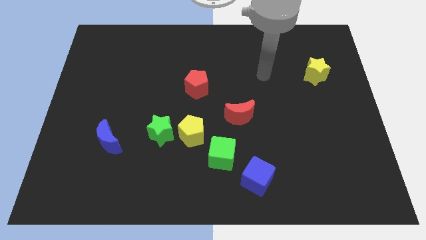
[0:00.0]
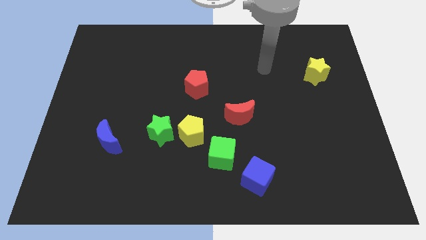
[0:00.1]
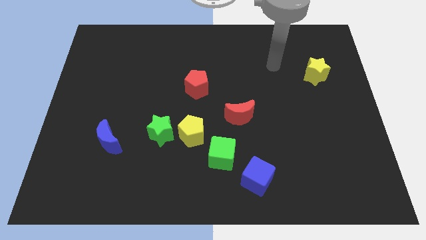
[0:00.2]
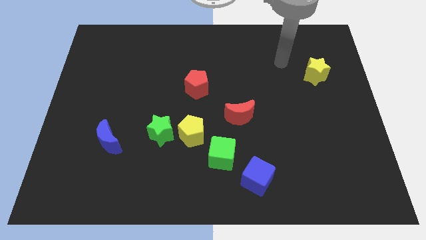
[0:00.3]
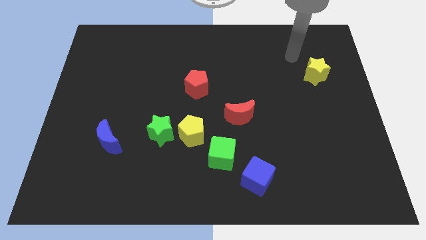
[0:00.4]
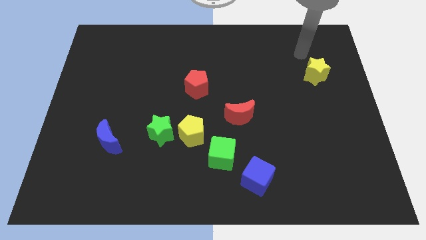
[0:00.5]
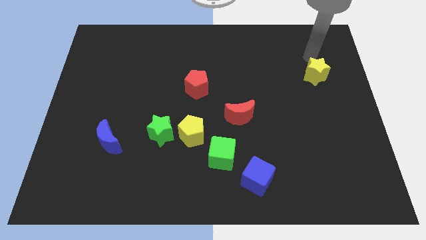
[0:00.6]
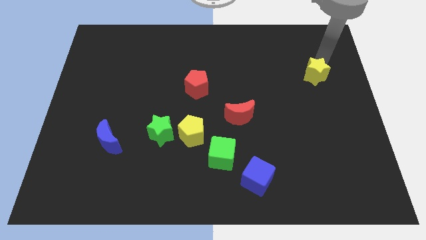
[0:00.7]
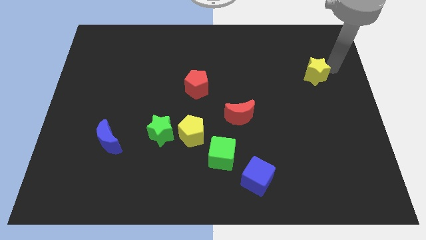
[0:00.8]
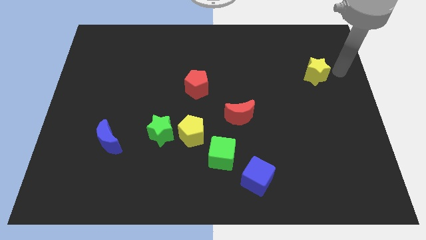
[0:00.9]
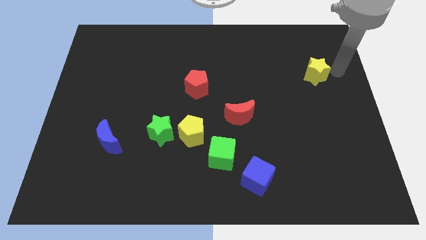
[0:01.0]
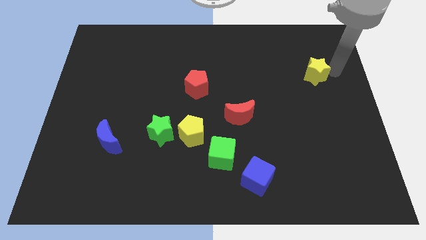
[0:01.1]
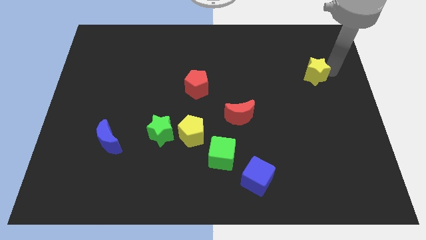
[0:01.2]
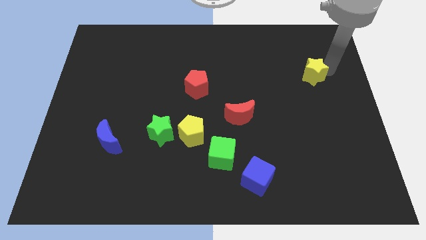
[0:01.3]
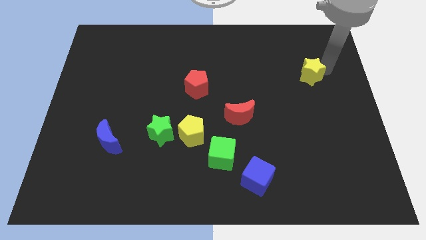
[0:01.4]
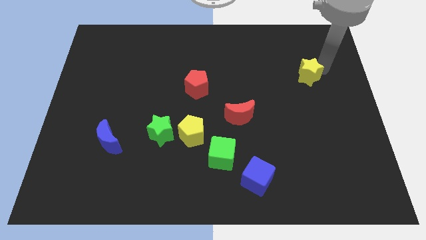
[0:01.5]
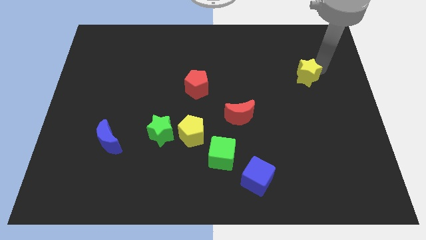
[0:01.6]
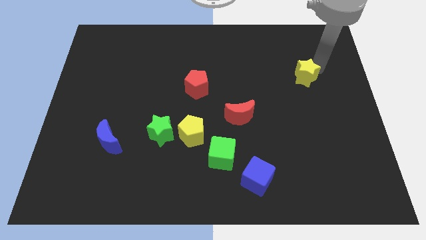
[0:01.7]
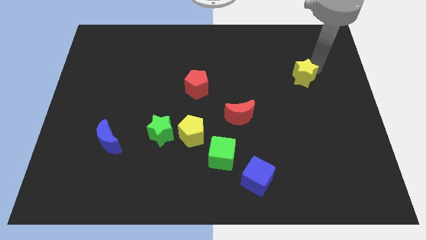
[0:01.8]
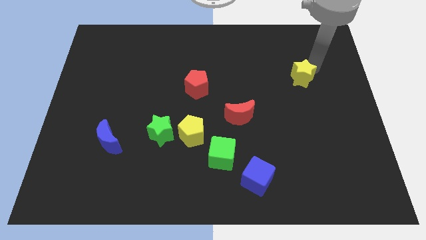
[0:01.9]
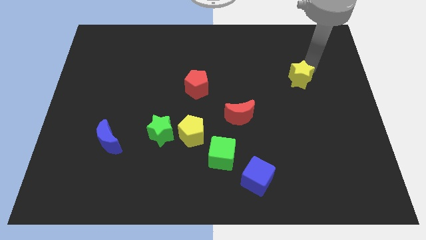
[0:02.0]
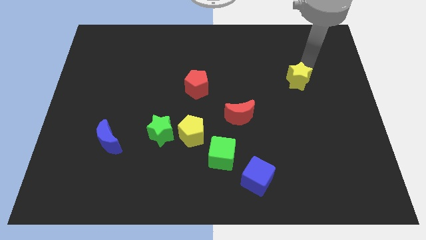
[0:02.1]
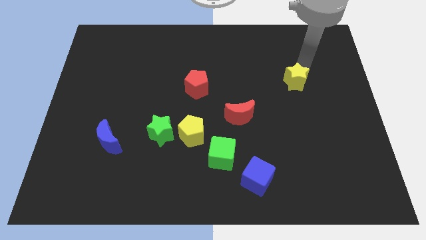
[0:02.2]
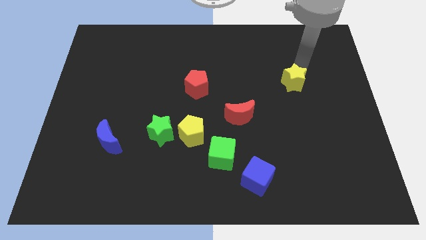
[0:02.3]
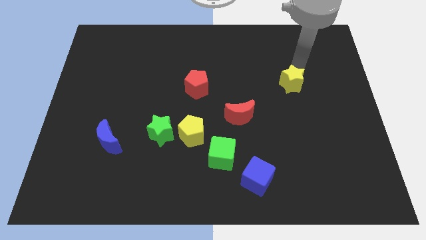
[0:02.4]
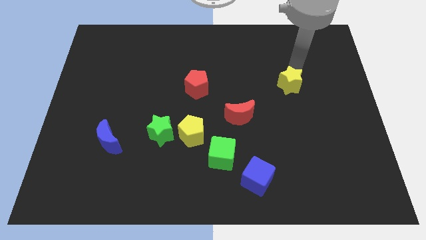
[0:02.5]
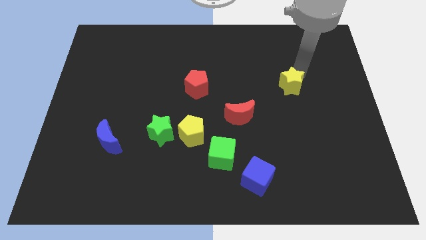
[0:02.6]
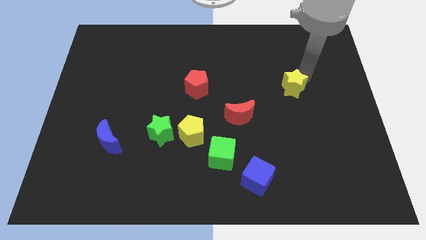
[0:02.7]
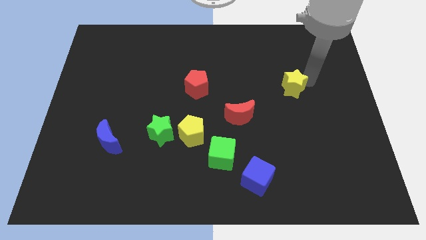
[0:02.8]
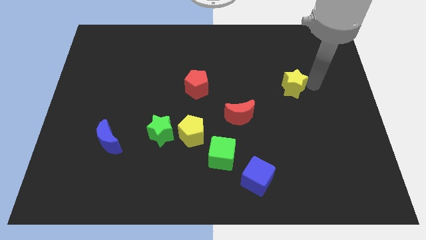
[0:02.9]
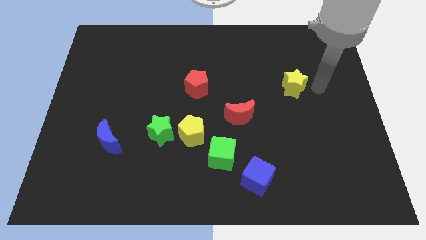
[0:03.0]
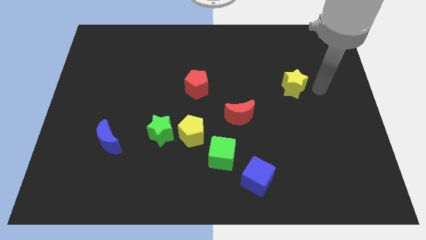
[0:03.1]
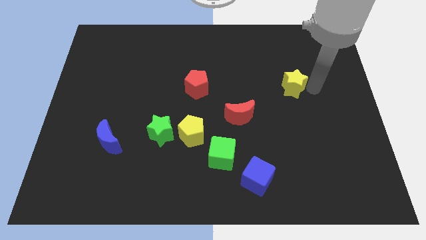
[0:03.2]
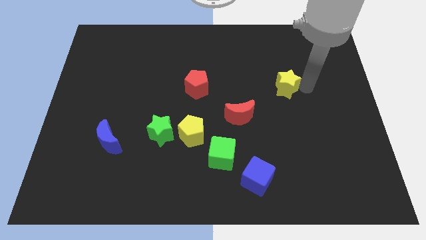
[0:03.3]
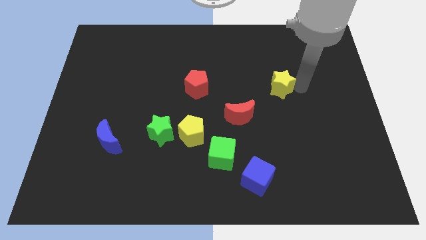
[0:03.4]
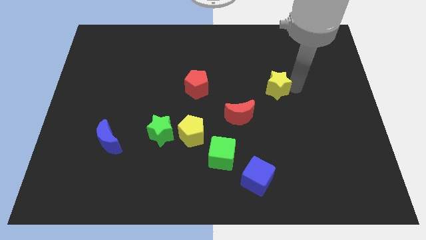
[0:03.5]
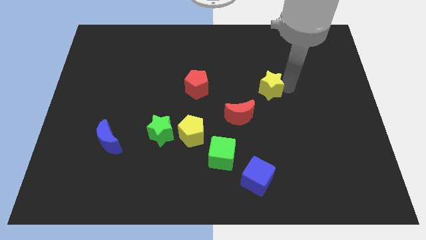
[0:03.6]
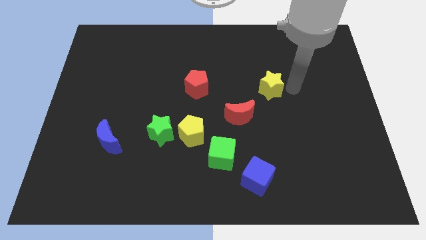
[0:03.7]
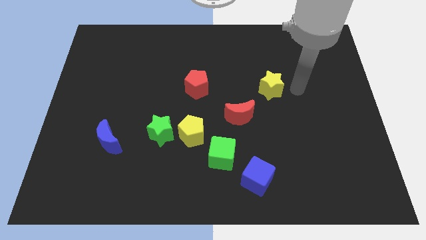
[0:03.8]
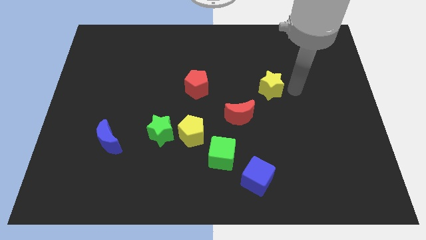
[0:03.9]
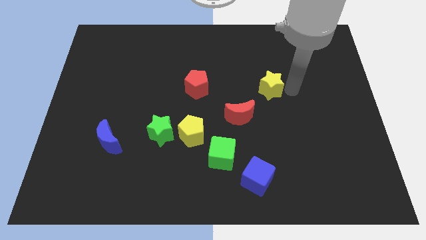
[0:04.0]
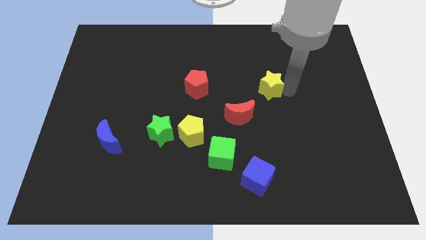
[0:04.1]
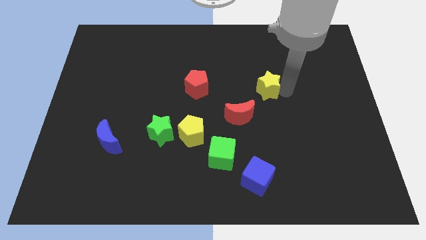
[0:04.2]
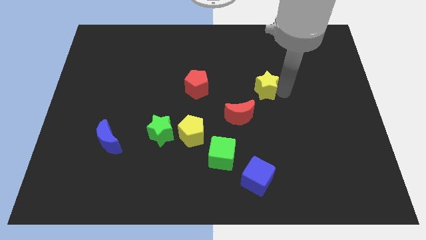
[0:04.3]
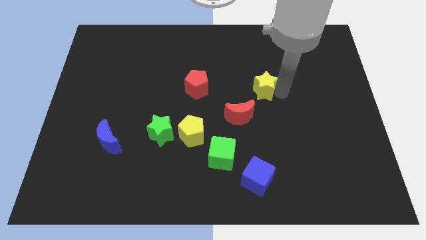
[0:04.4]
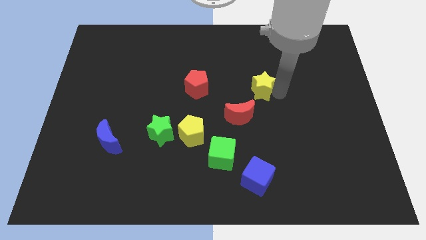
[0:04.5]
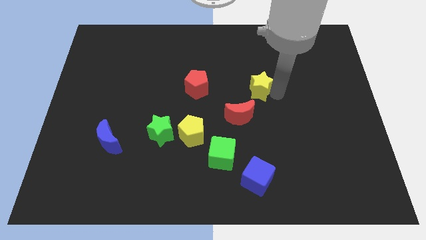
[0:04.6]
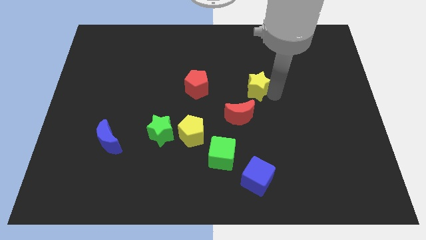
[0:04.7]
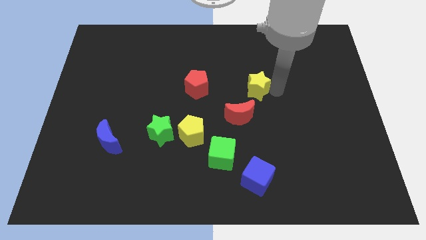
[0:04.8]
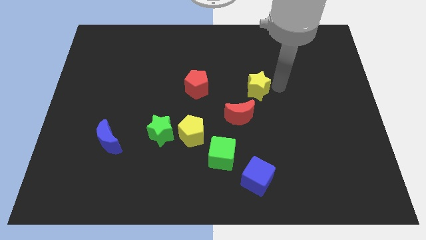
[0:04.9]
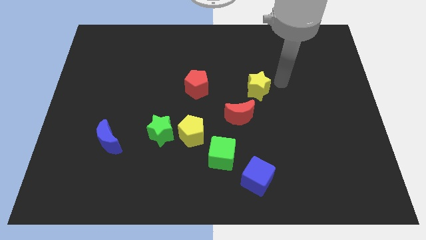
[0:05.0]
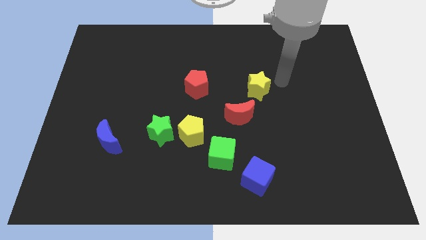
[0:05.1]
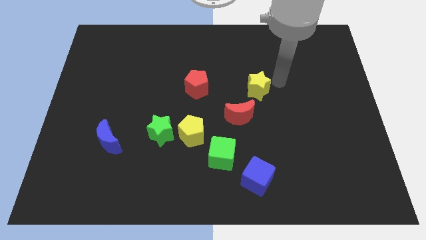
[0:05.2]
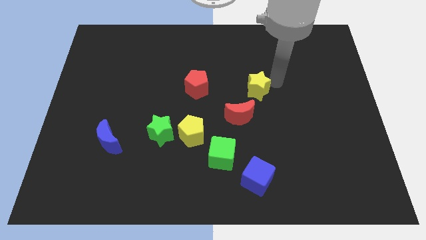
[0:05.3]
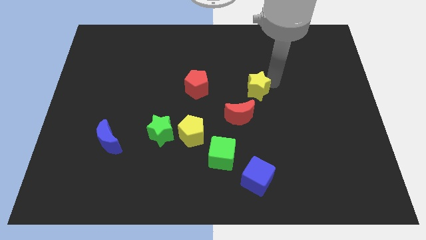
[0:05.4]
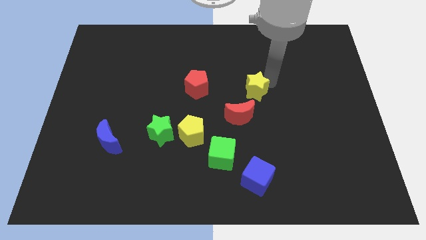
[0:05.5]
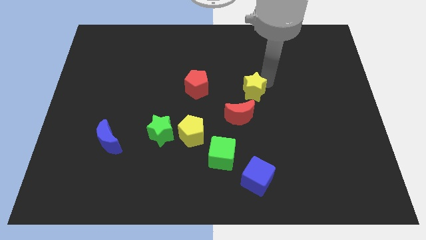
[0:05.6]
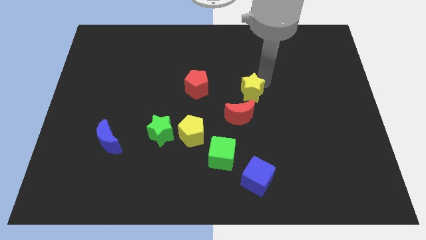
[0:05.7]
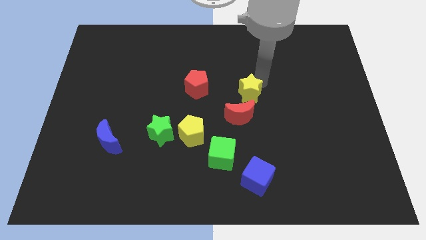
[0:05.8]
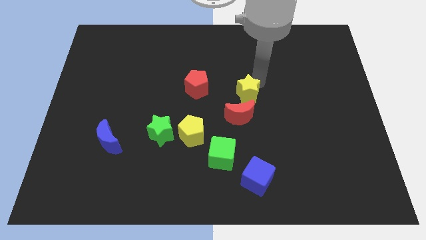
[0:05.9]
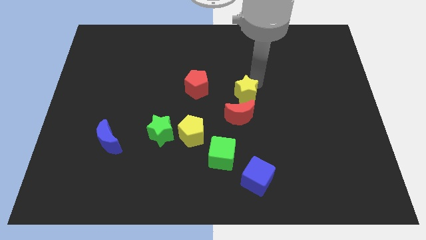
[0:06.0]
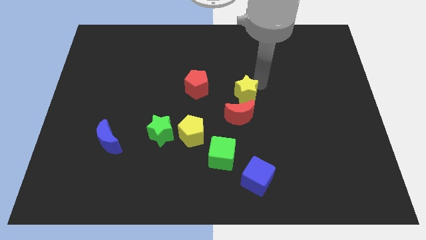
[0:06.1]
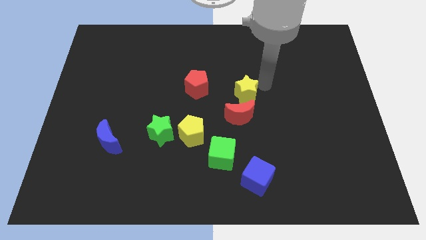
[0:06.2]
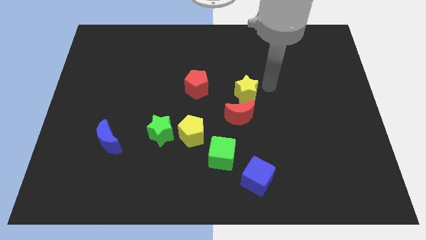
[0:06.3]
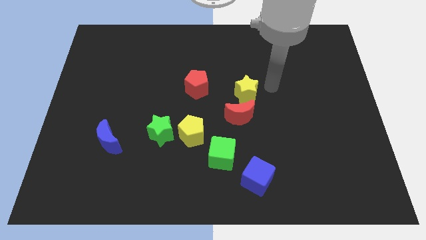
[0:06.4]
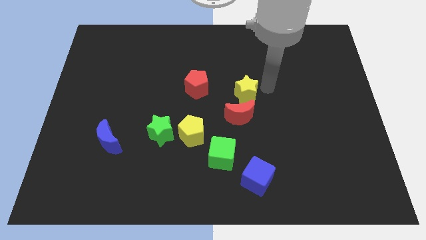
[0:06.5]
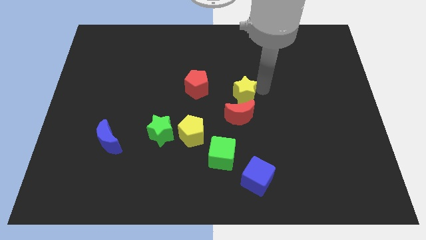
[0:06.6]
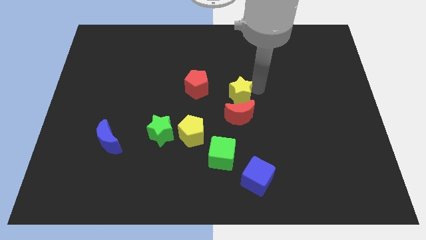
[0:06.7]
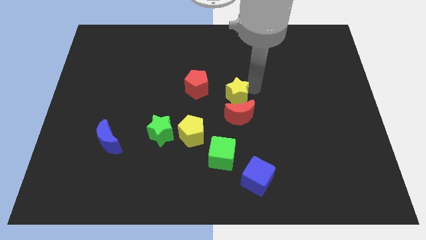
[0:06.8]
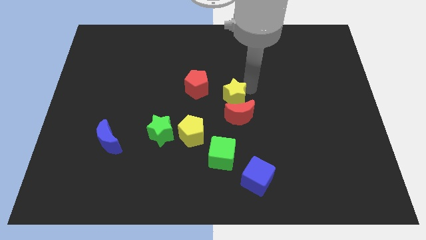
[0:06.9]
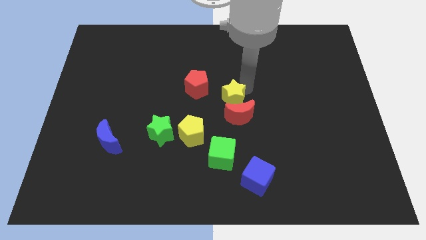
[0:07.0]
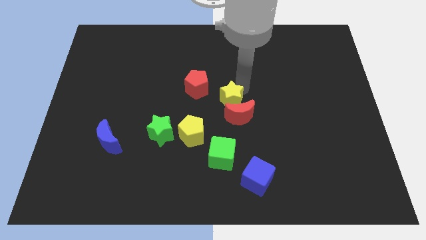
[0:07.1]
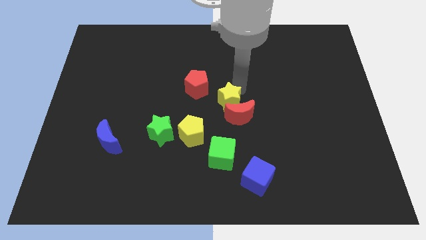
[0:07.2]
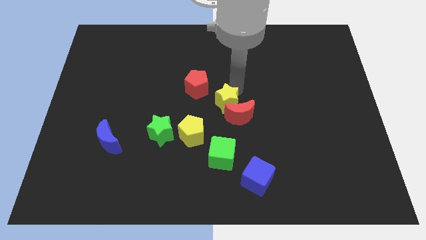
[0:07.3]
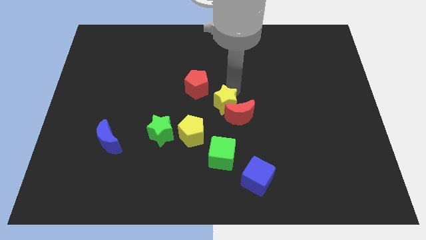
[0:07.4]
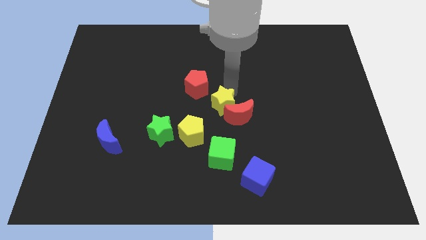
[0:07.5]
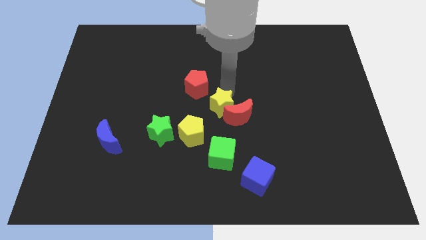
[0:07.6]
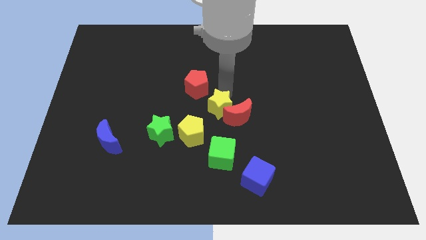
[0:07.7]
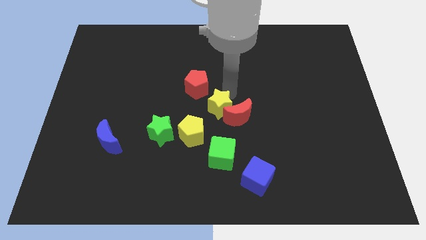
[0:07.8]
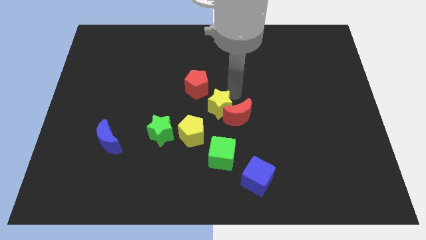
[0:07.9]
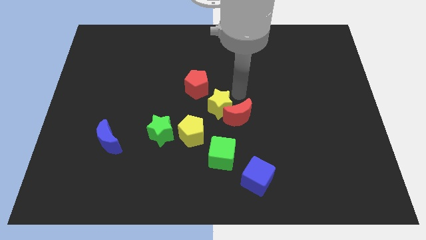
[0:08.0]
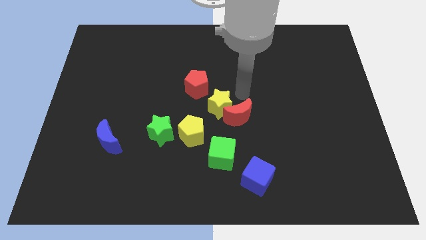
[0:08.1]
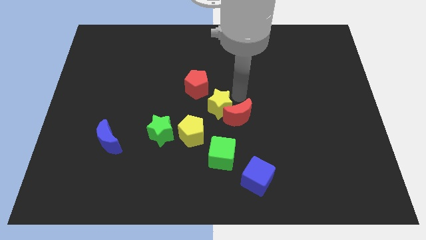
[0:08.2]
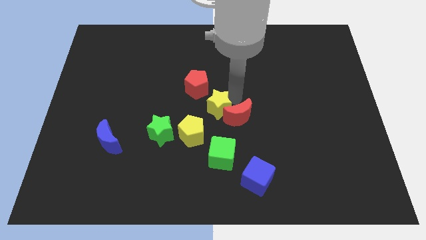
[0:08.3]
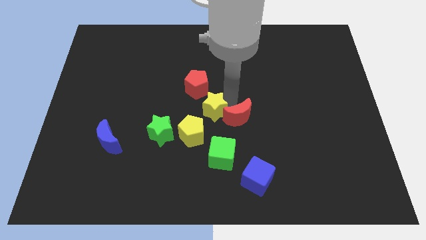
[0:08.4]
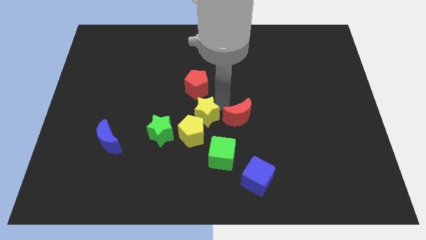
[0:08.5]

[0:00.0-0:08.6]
put the yellow star to the yellow pentagon
